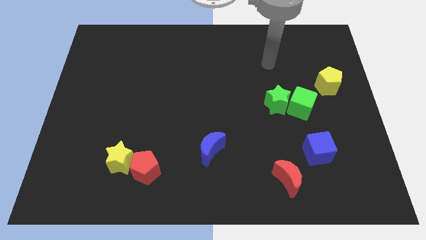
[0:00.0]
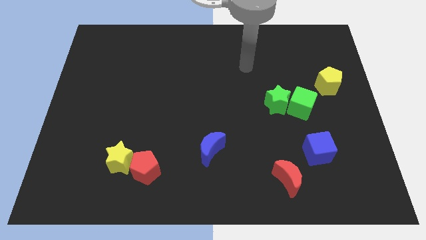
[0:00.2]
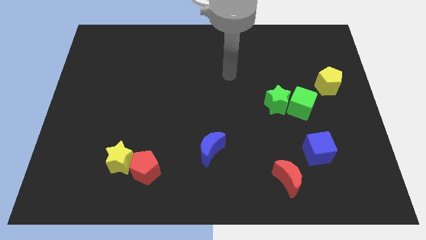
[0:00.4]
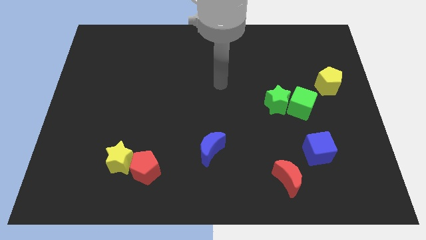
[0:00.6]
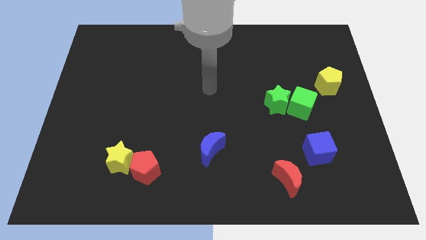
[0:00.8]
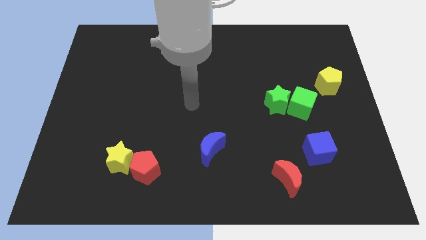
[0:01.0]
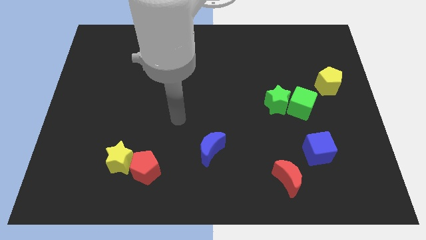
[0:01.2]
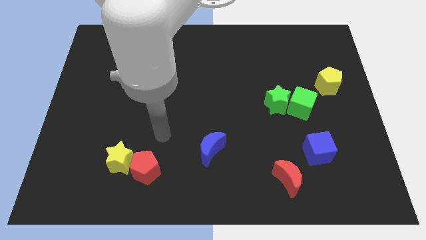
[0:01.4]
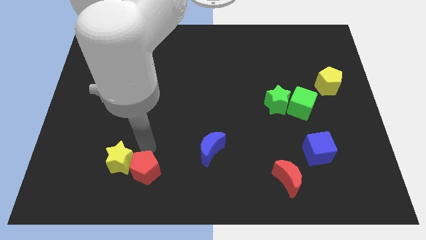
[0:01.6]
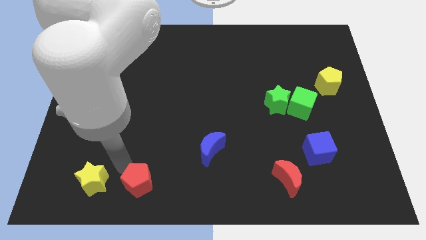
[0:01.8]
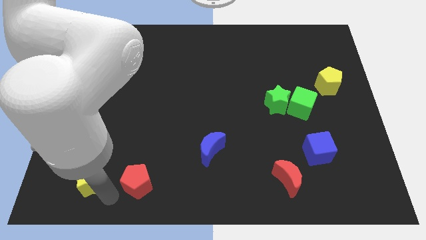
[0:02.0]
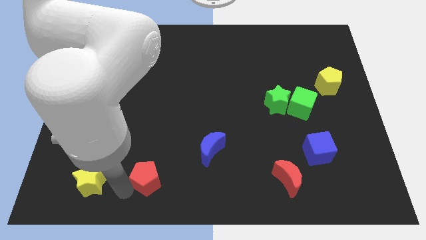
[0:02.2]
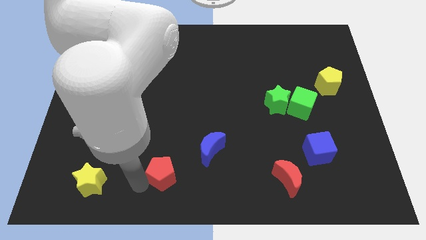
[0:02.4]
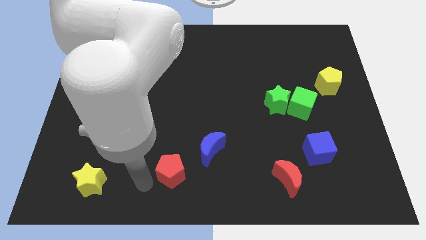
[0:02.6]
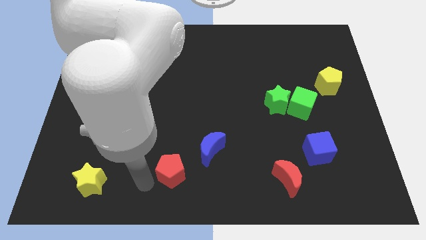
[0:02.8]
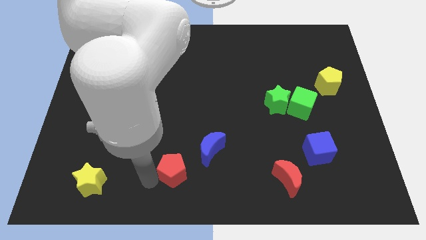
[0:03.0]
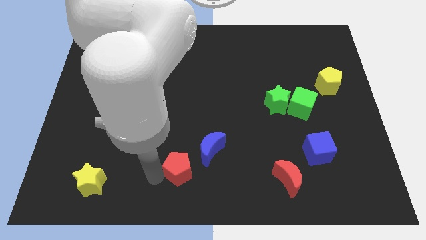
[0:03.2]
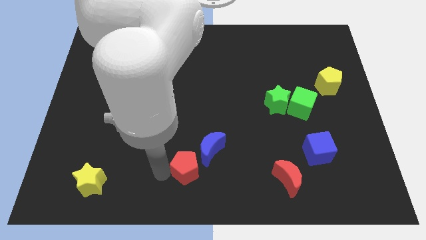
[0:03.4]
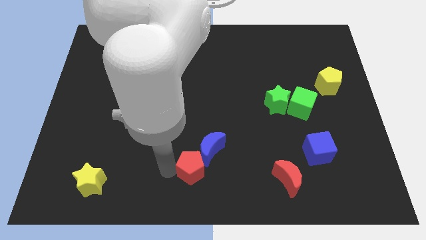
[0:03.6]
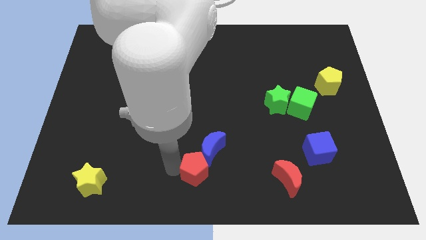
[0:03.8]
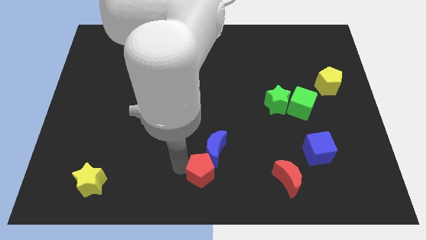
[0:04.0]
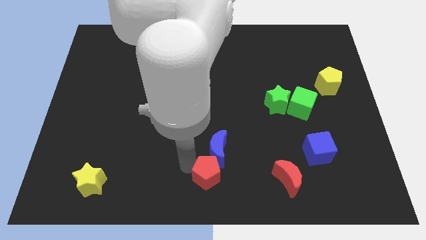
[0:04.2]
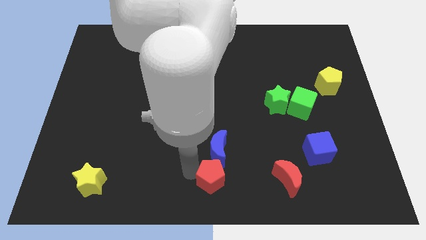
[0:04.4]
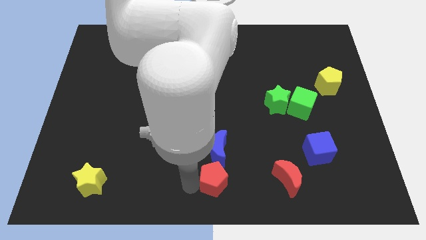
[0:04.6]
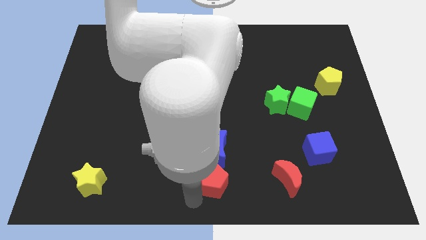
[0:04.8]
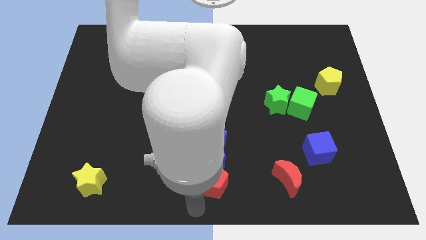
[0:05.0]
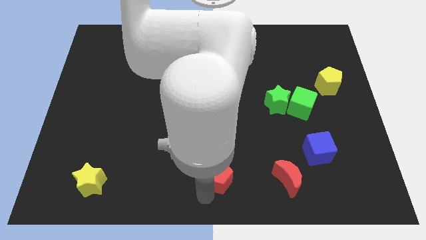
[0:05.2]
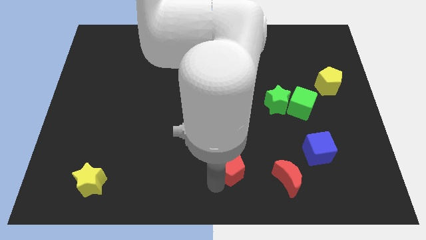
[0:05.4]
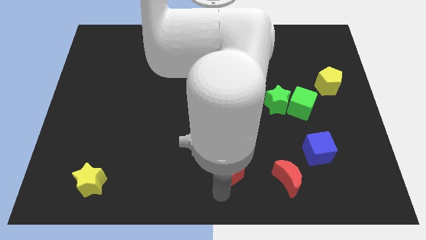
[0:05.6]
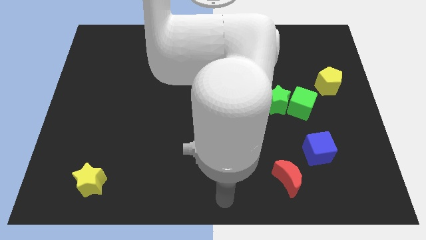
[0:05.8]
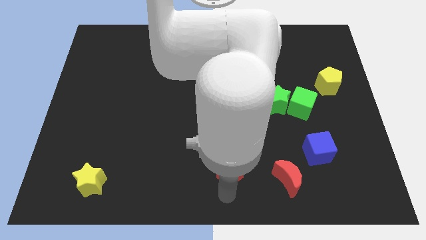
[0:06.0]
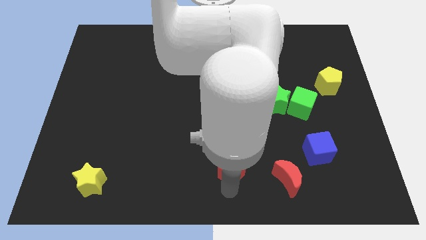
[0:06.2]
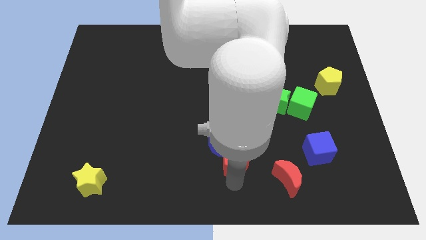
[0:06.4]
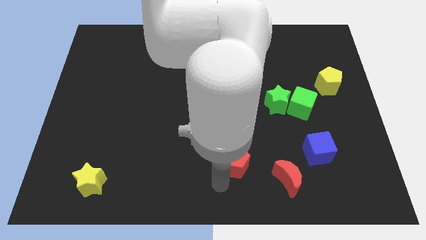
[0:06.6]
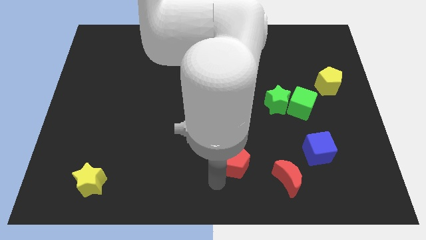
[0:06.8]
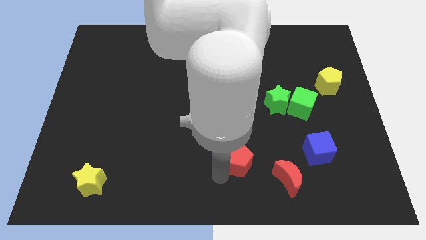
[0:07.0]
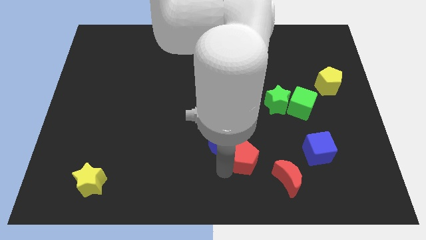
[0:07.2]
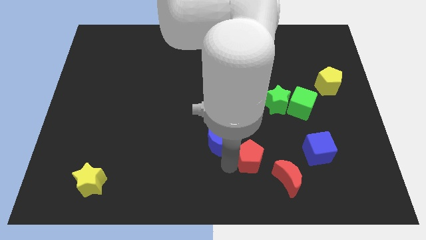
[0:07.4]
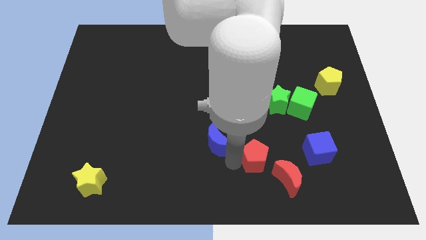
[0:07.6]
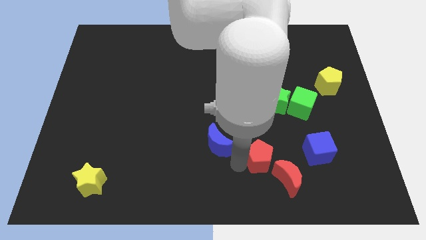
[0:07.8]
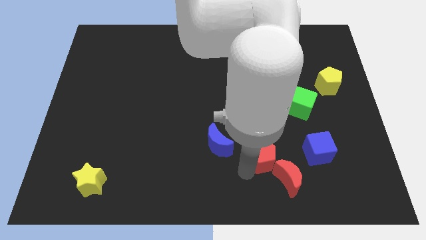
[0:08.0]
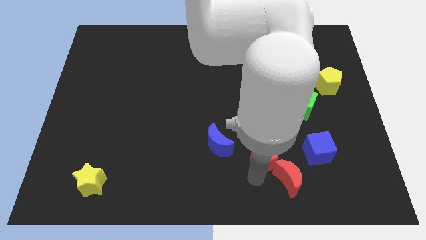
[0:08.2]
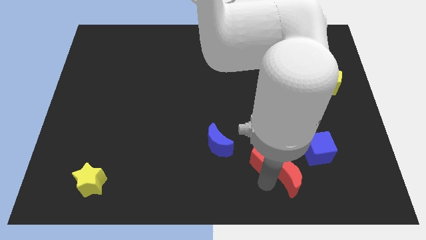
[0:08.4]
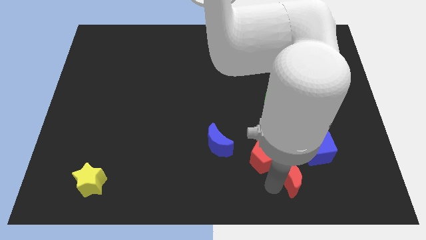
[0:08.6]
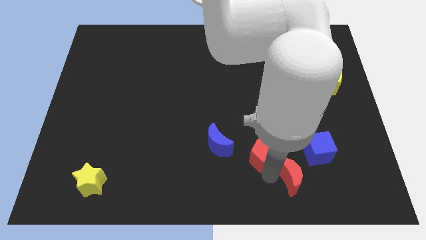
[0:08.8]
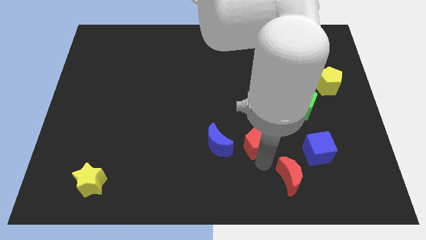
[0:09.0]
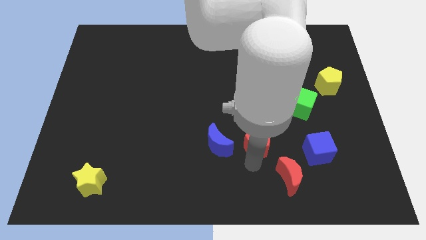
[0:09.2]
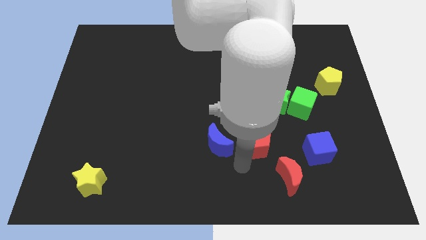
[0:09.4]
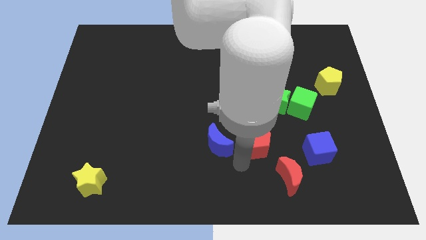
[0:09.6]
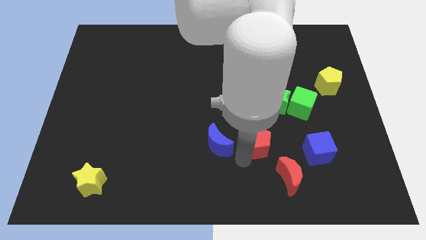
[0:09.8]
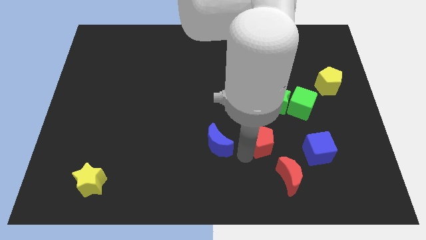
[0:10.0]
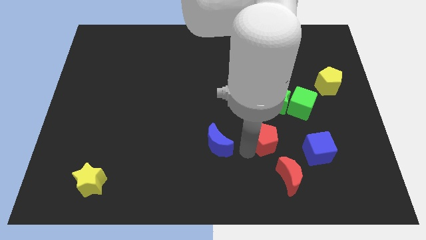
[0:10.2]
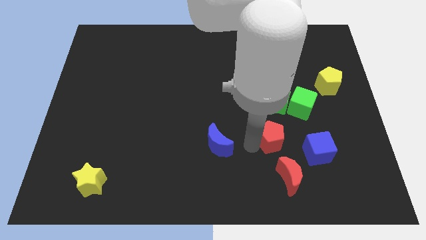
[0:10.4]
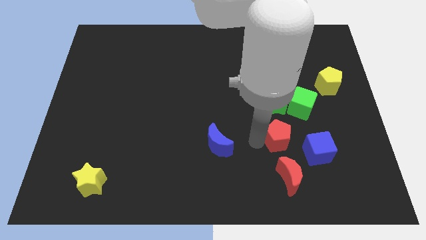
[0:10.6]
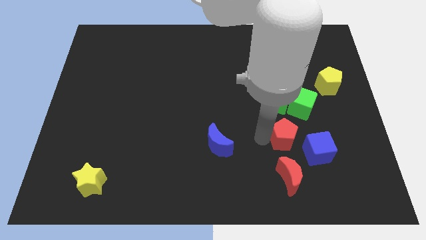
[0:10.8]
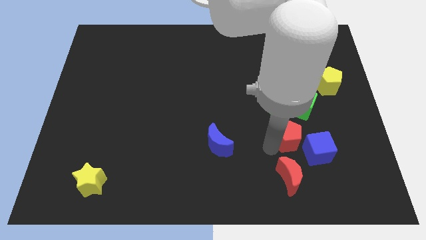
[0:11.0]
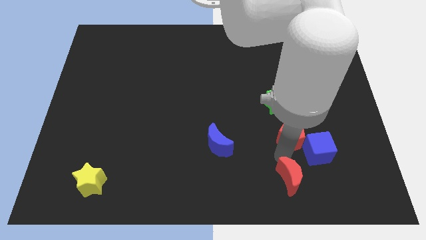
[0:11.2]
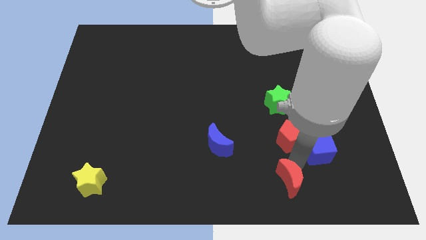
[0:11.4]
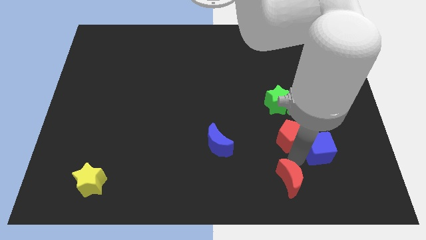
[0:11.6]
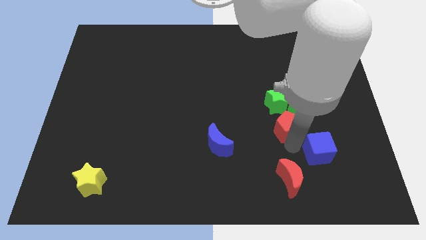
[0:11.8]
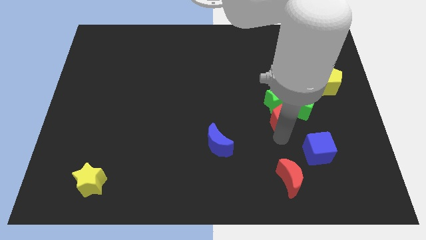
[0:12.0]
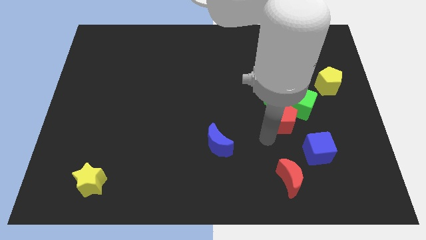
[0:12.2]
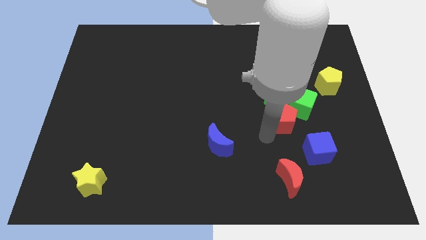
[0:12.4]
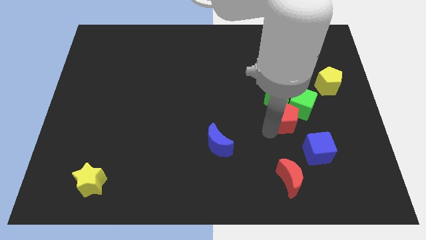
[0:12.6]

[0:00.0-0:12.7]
put the red pentagon to the green cube
